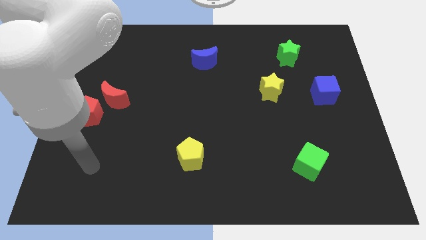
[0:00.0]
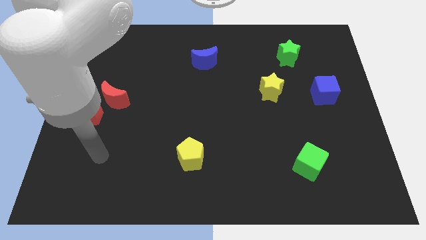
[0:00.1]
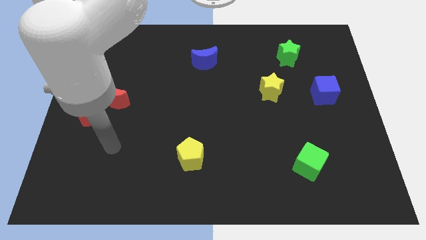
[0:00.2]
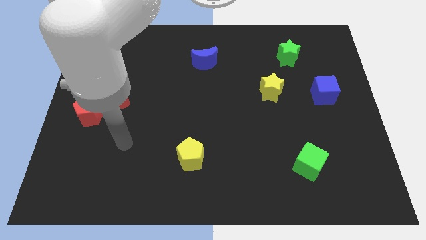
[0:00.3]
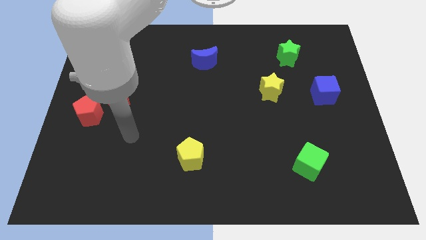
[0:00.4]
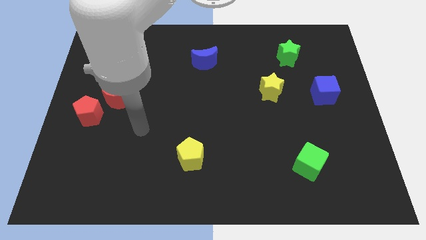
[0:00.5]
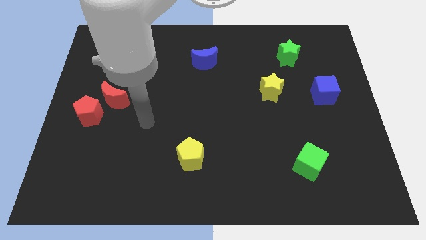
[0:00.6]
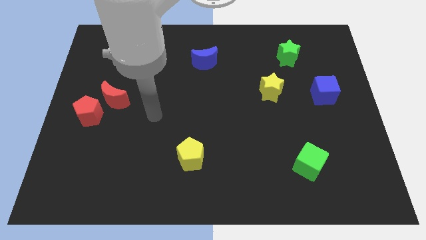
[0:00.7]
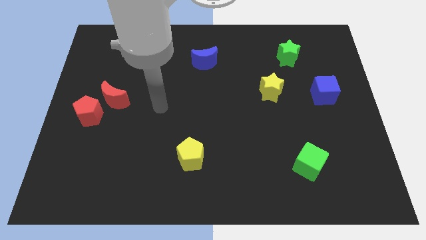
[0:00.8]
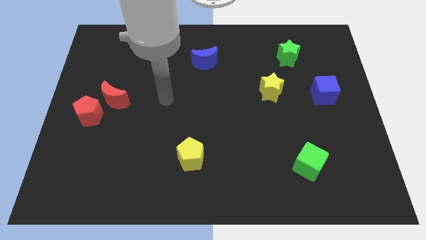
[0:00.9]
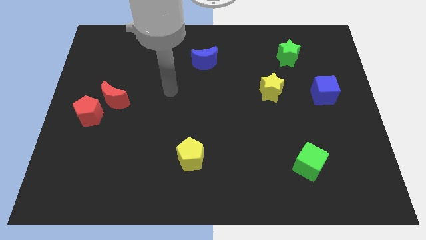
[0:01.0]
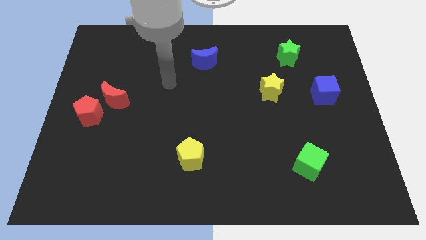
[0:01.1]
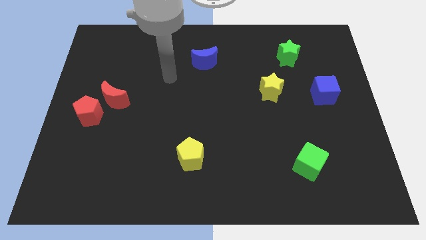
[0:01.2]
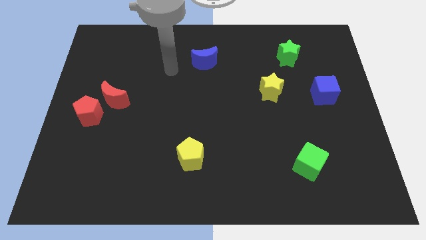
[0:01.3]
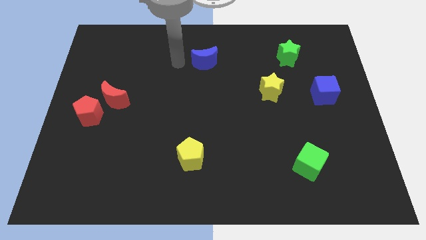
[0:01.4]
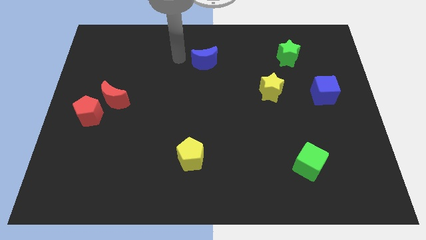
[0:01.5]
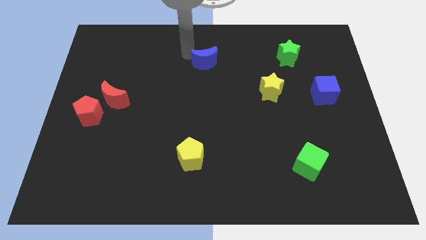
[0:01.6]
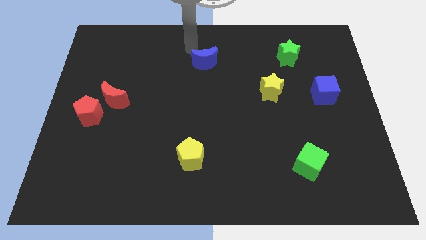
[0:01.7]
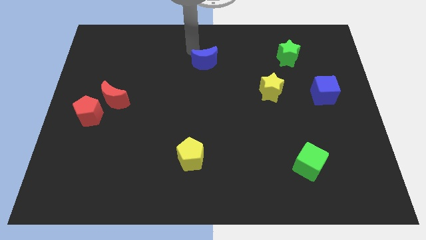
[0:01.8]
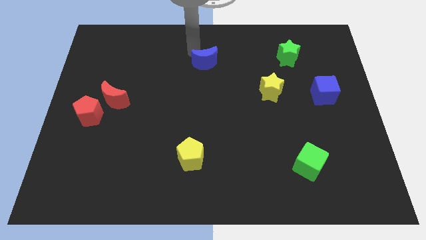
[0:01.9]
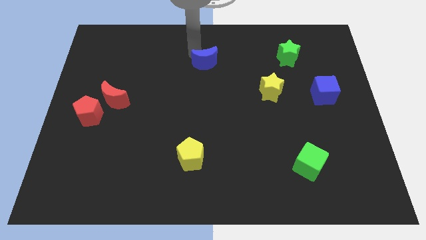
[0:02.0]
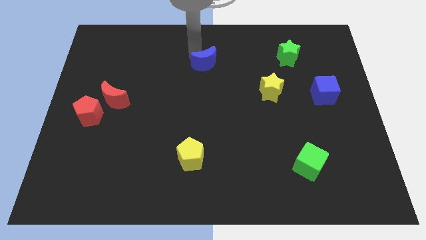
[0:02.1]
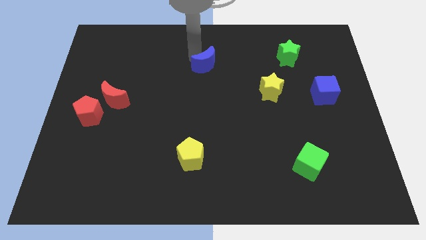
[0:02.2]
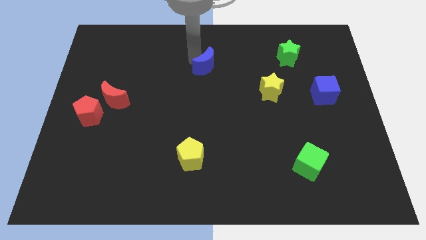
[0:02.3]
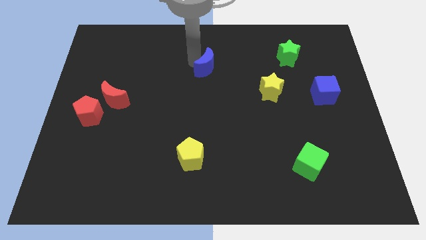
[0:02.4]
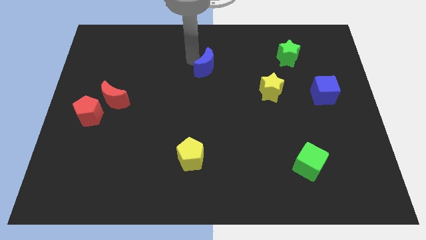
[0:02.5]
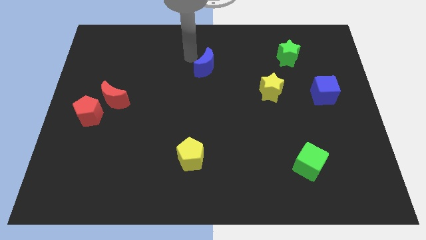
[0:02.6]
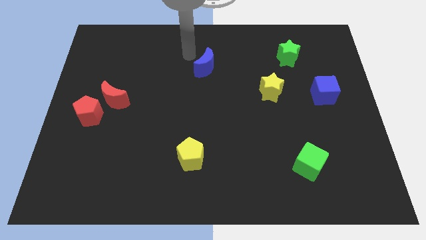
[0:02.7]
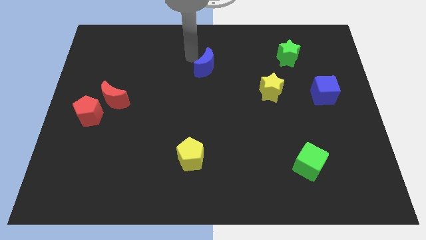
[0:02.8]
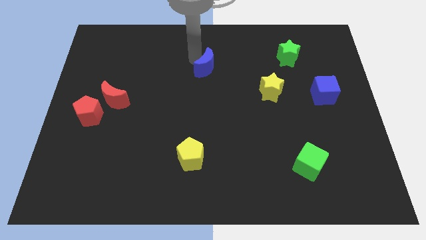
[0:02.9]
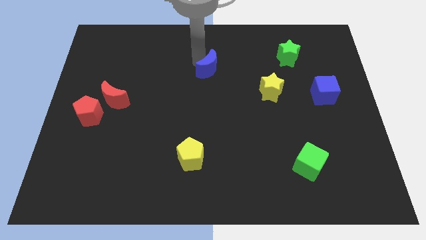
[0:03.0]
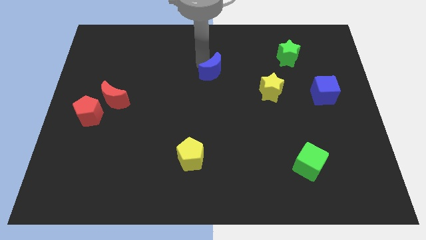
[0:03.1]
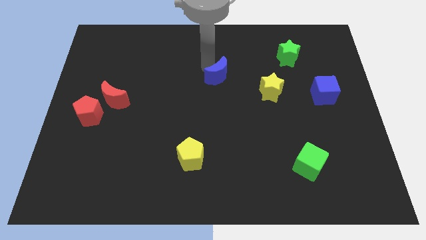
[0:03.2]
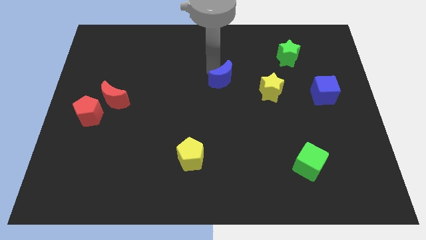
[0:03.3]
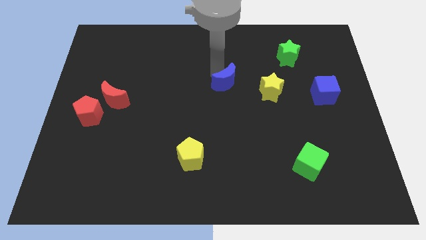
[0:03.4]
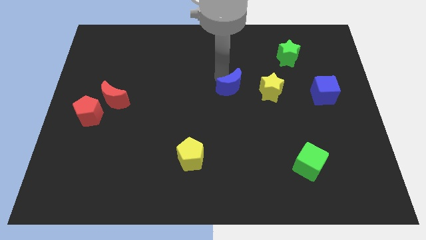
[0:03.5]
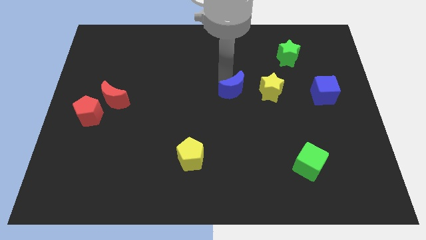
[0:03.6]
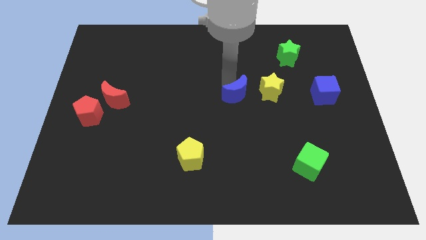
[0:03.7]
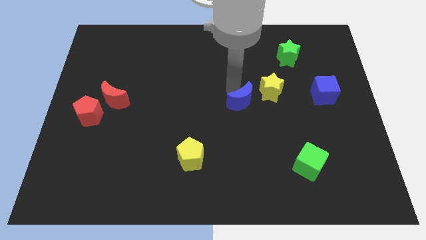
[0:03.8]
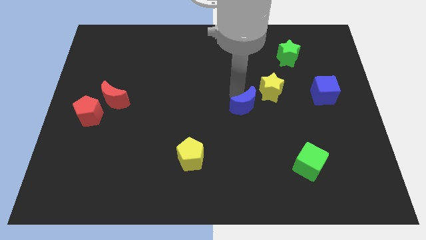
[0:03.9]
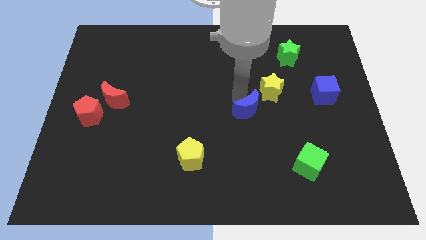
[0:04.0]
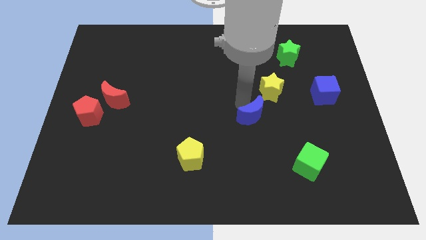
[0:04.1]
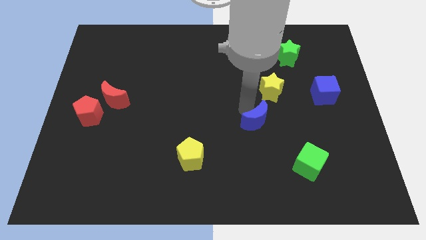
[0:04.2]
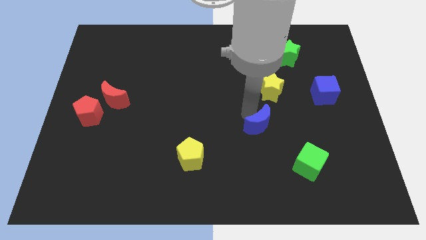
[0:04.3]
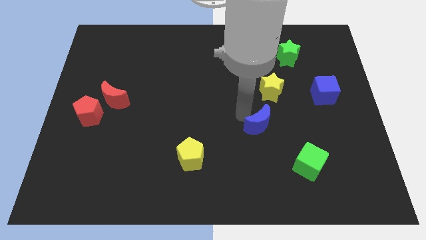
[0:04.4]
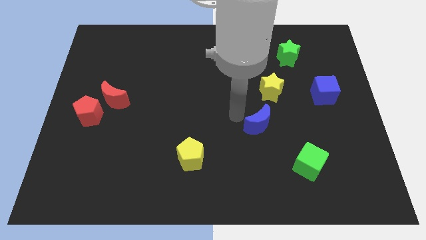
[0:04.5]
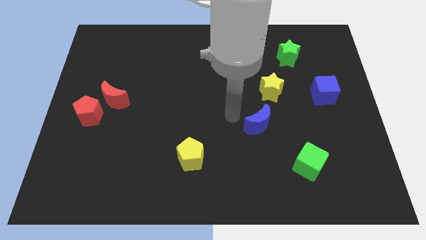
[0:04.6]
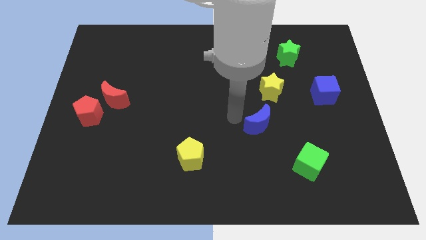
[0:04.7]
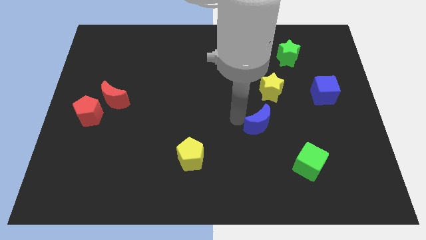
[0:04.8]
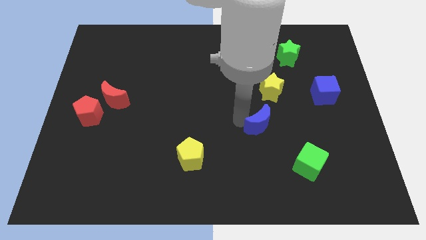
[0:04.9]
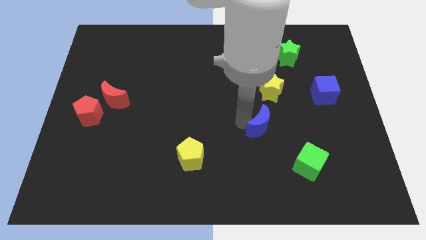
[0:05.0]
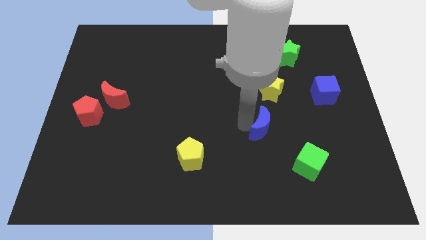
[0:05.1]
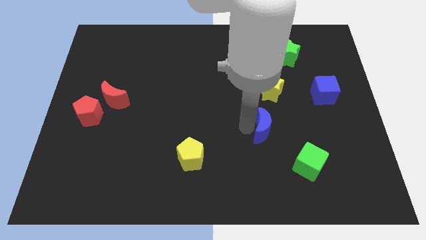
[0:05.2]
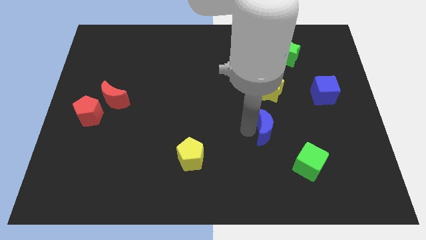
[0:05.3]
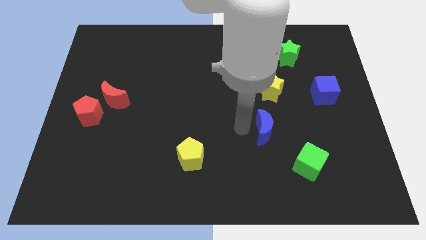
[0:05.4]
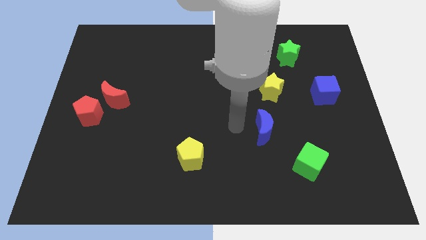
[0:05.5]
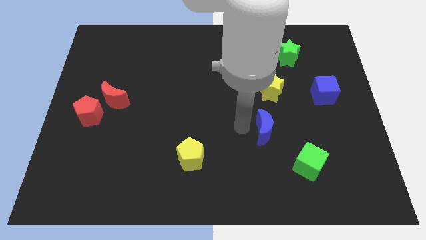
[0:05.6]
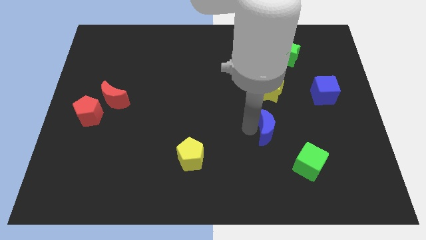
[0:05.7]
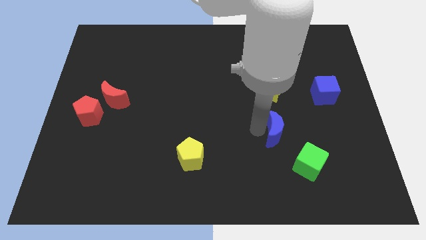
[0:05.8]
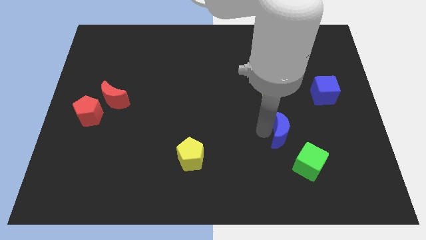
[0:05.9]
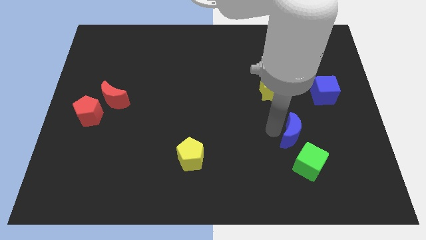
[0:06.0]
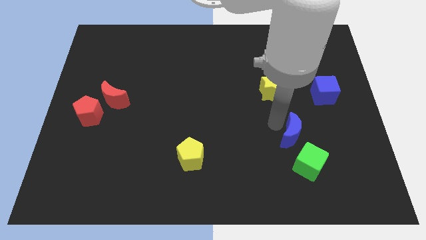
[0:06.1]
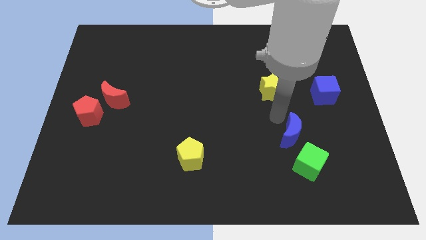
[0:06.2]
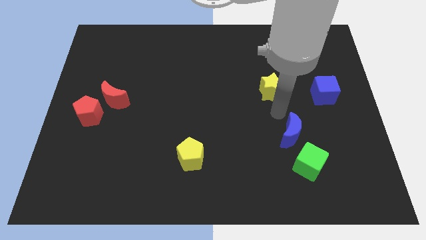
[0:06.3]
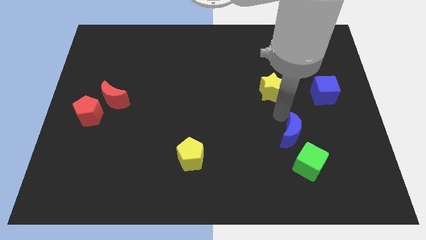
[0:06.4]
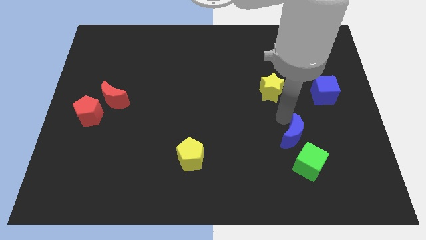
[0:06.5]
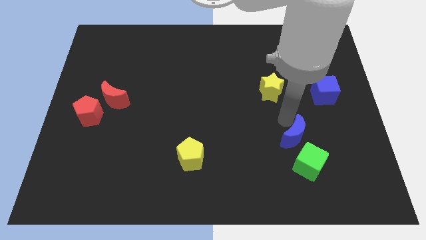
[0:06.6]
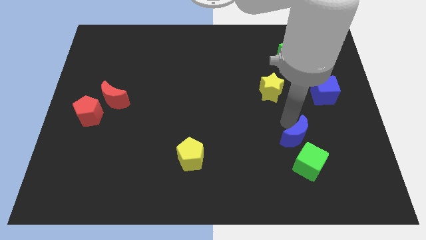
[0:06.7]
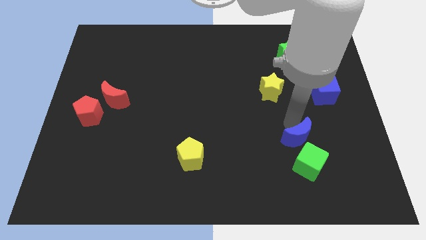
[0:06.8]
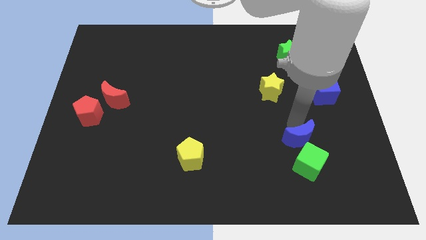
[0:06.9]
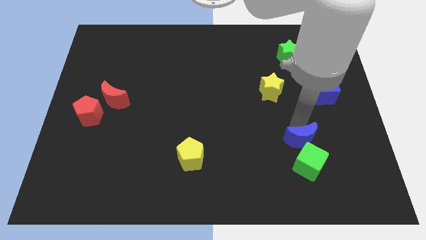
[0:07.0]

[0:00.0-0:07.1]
move the blue moon next to the green cube
